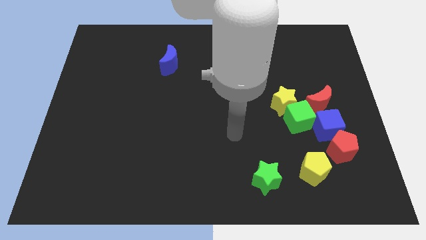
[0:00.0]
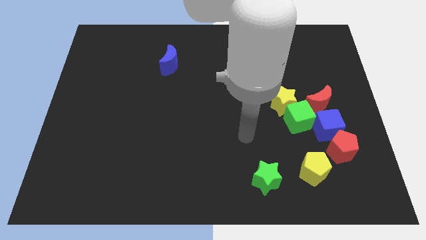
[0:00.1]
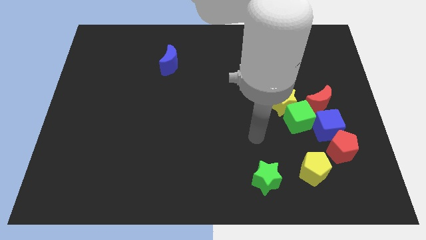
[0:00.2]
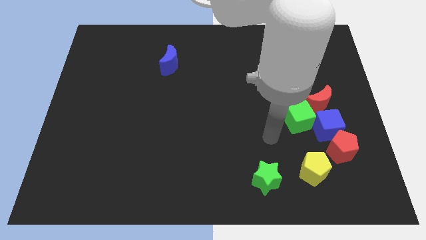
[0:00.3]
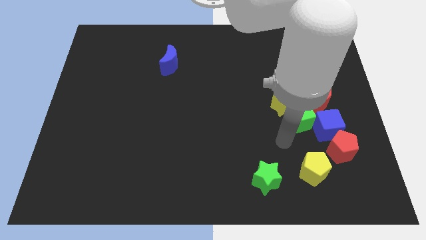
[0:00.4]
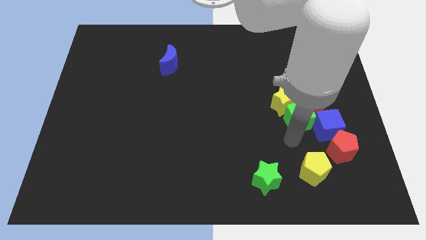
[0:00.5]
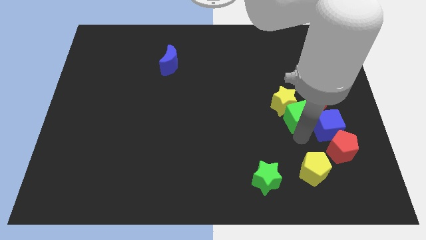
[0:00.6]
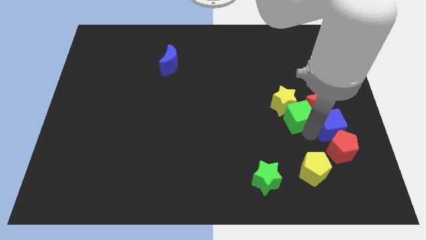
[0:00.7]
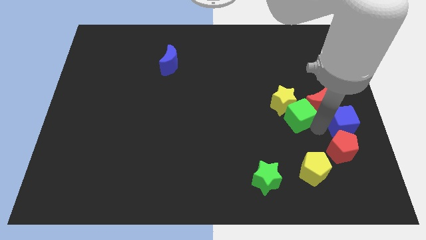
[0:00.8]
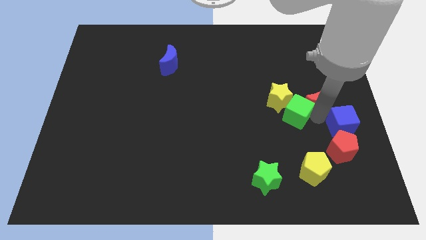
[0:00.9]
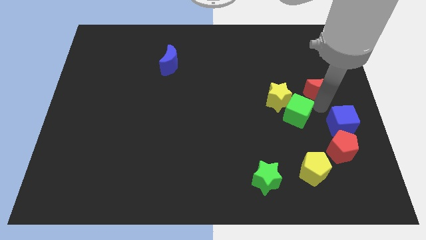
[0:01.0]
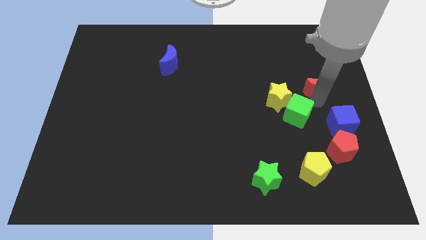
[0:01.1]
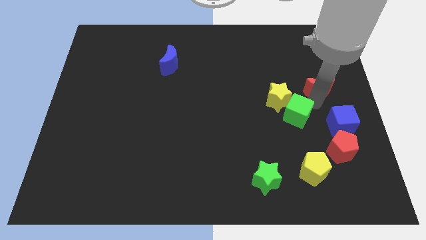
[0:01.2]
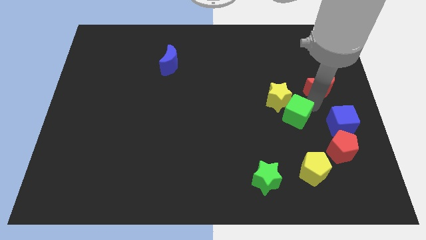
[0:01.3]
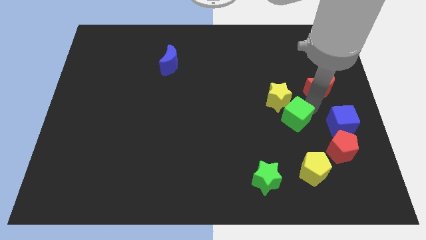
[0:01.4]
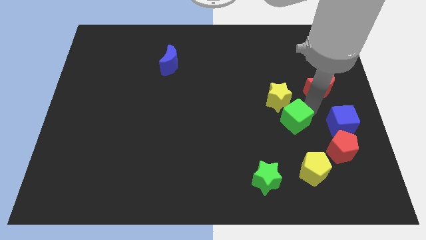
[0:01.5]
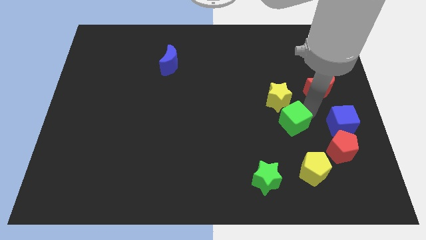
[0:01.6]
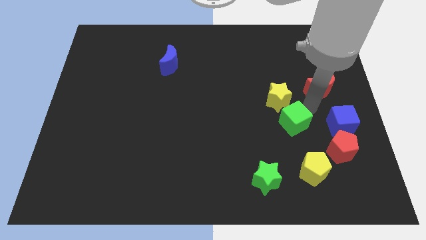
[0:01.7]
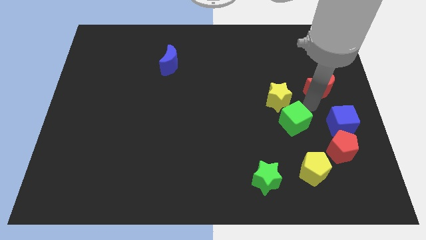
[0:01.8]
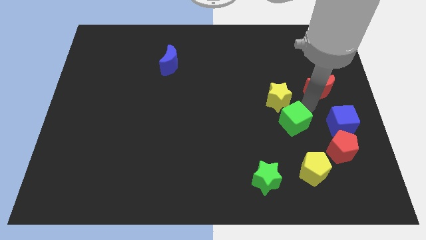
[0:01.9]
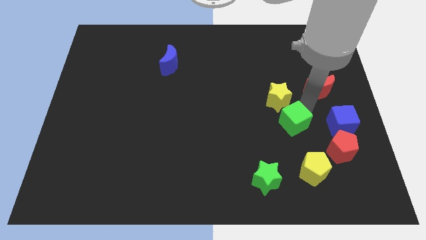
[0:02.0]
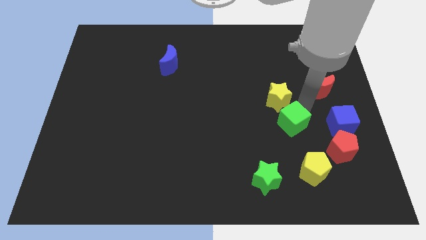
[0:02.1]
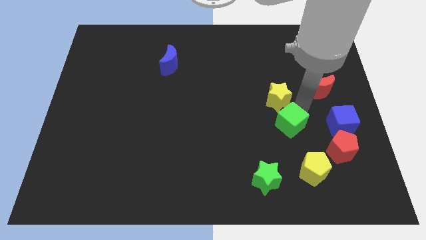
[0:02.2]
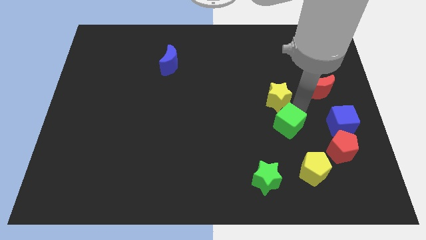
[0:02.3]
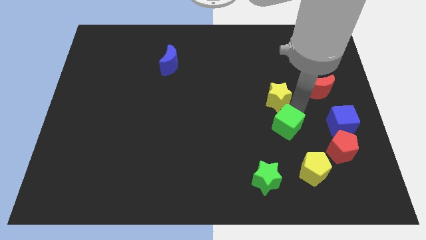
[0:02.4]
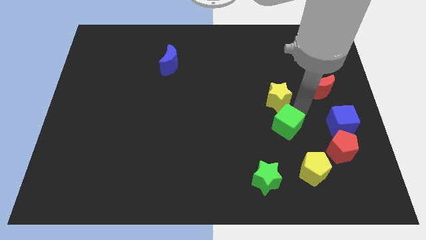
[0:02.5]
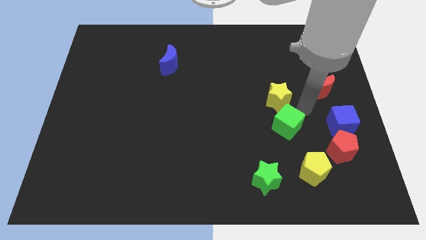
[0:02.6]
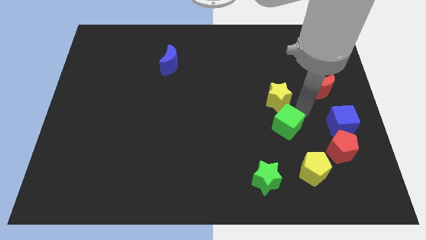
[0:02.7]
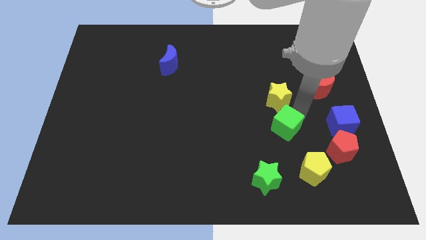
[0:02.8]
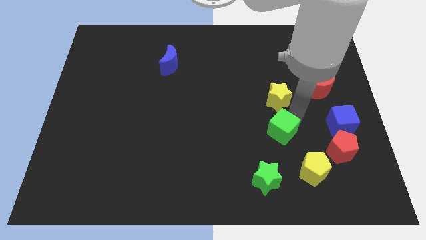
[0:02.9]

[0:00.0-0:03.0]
pull the green cube apart from the group

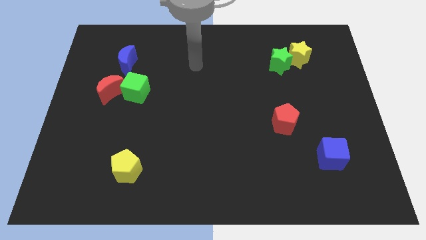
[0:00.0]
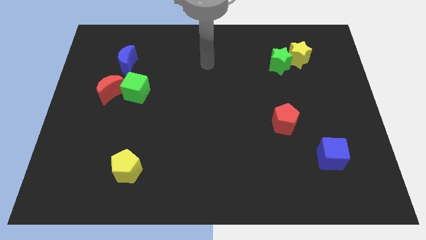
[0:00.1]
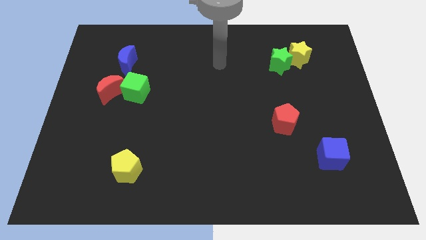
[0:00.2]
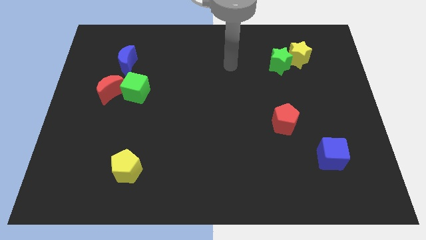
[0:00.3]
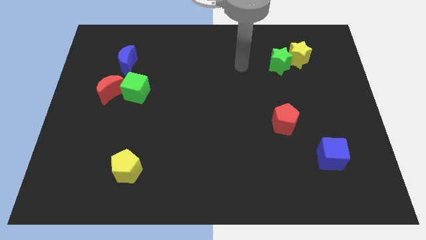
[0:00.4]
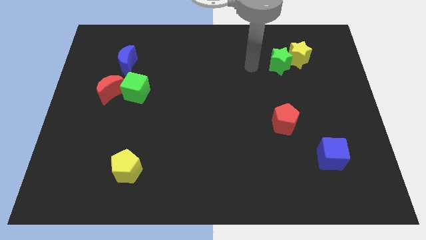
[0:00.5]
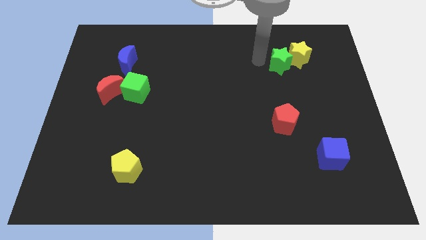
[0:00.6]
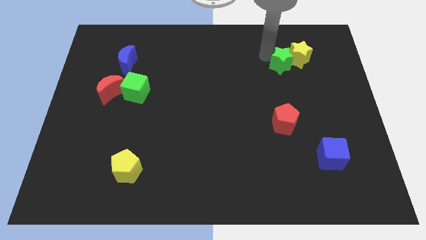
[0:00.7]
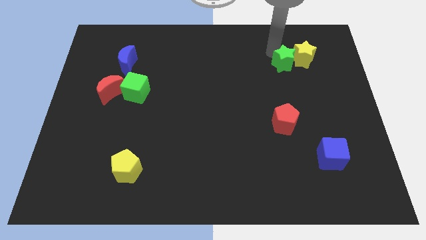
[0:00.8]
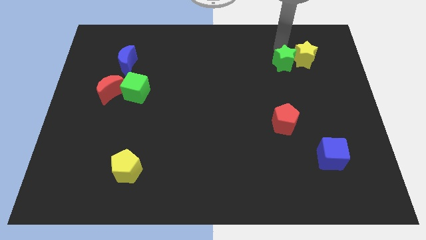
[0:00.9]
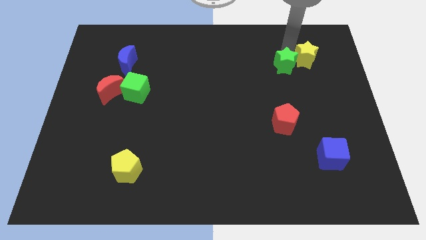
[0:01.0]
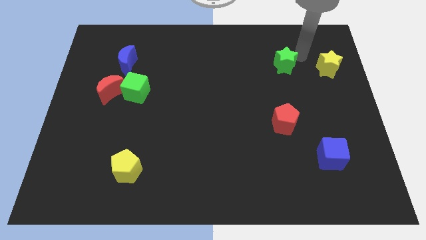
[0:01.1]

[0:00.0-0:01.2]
pull the green star apart from the yellow star

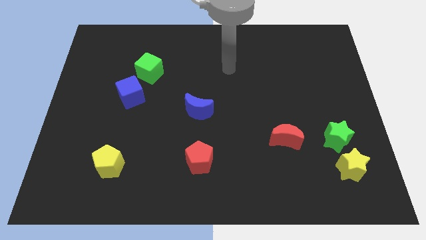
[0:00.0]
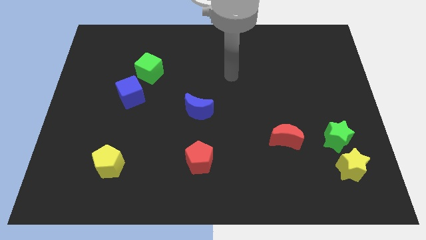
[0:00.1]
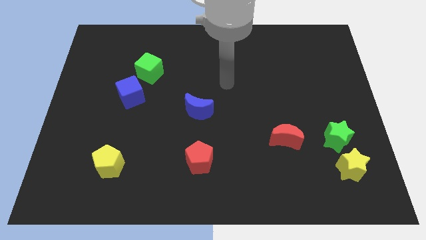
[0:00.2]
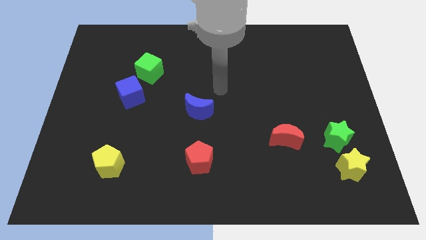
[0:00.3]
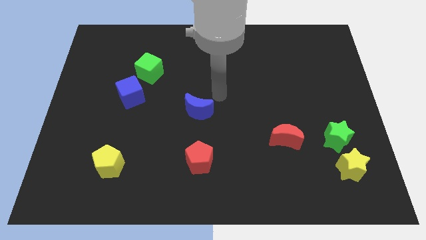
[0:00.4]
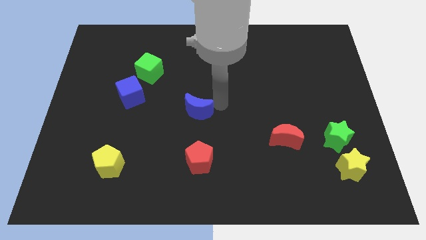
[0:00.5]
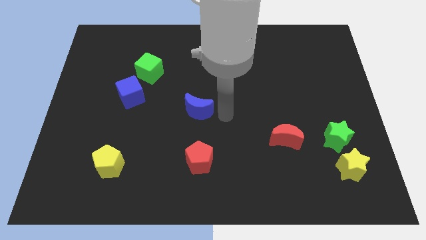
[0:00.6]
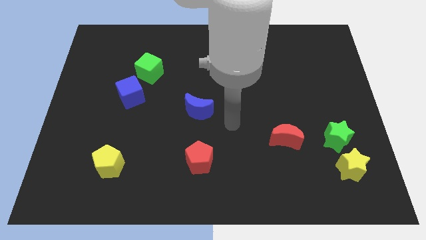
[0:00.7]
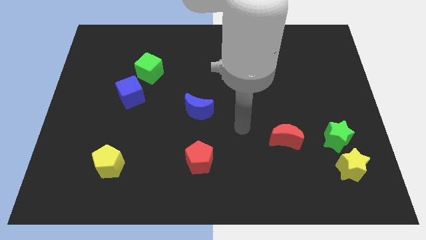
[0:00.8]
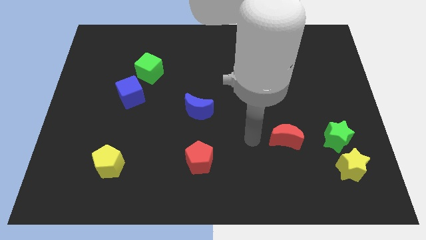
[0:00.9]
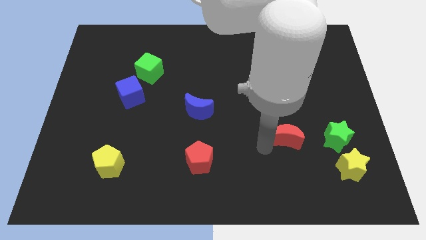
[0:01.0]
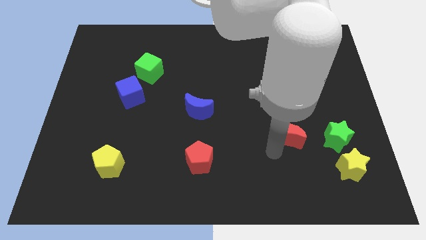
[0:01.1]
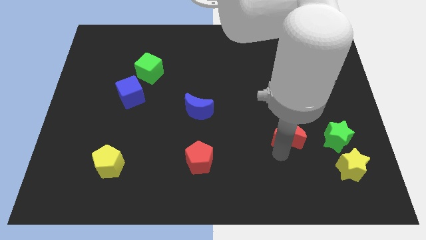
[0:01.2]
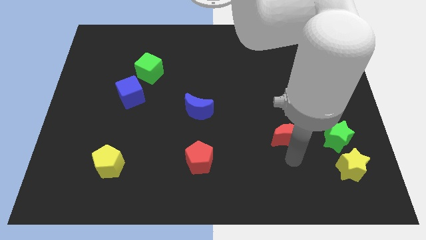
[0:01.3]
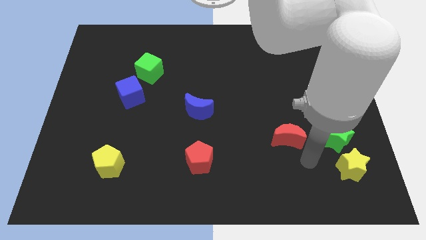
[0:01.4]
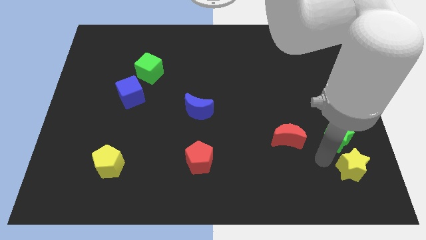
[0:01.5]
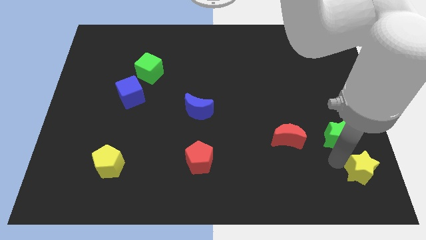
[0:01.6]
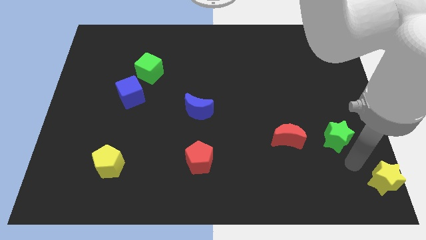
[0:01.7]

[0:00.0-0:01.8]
separate the green star from the yellow star

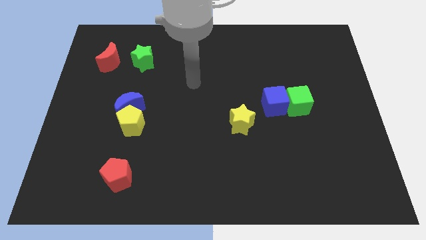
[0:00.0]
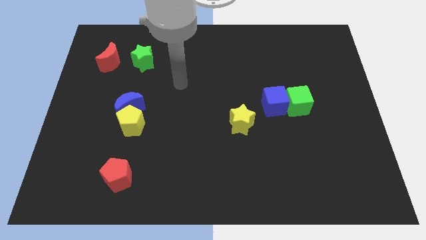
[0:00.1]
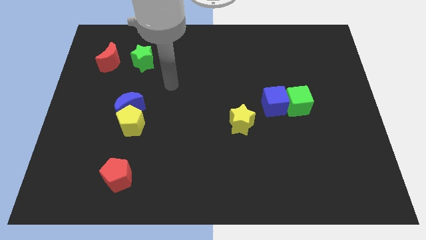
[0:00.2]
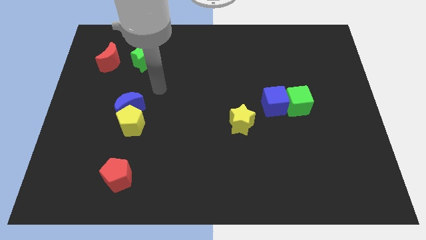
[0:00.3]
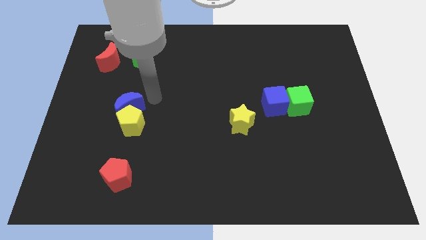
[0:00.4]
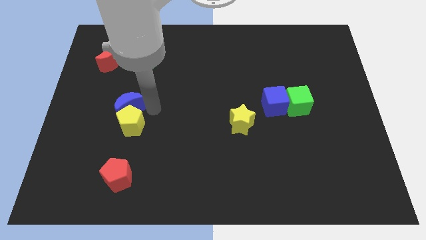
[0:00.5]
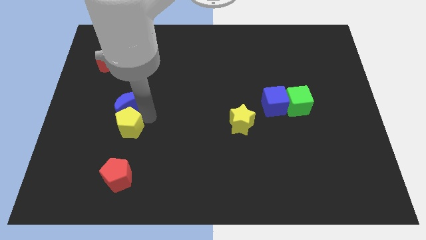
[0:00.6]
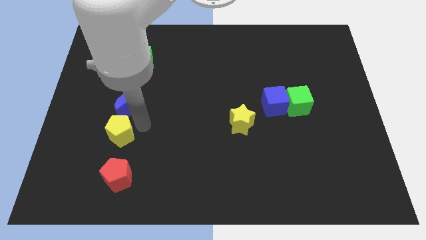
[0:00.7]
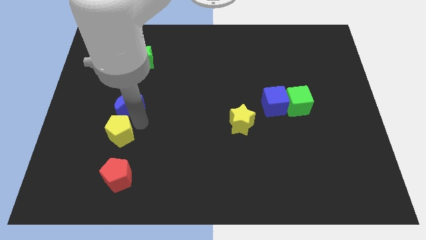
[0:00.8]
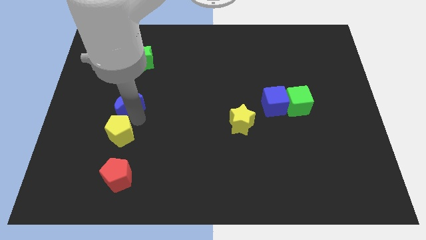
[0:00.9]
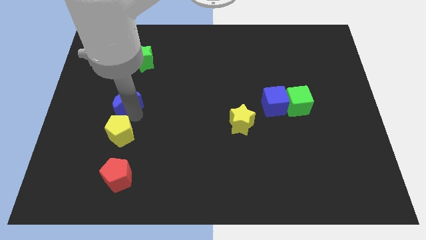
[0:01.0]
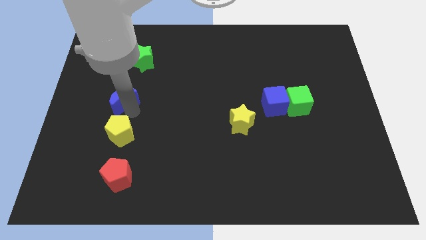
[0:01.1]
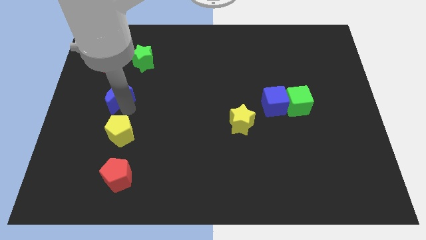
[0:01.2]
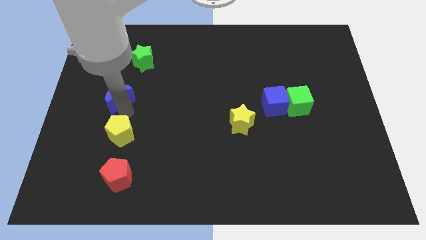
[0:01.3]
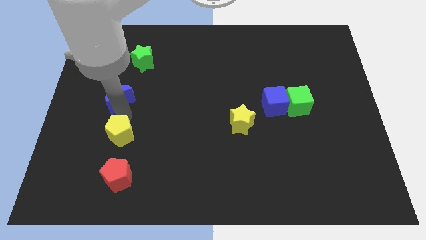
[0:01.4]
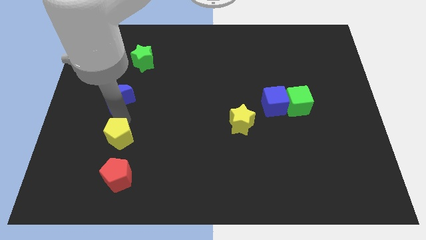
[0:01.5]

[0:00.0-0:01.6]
separate the blue moon from the yellow pentagon

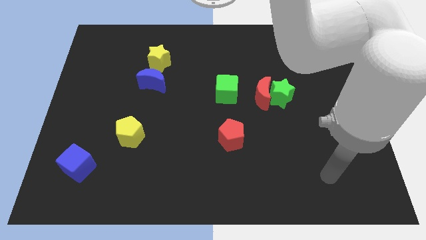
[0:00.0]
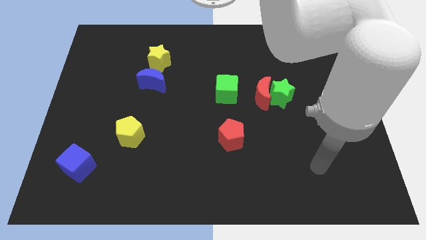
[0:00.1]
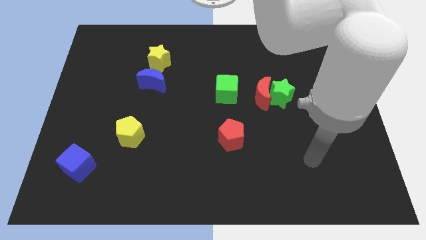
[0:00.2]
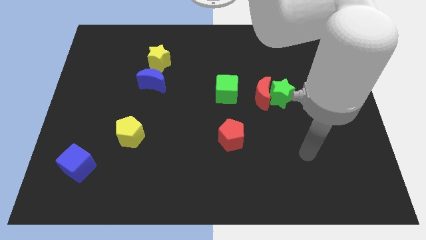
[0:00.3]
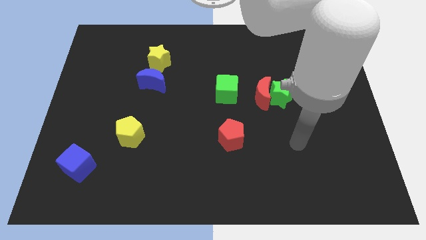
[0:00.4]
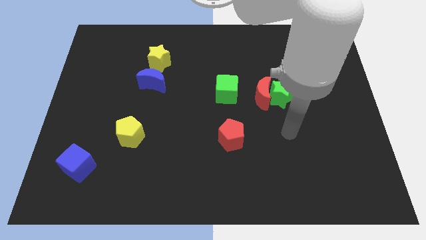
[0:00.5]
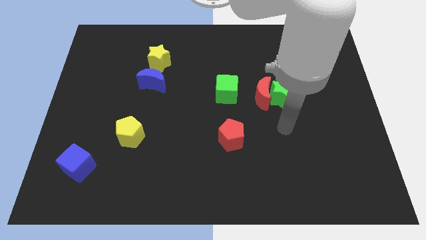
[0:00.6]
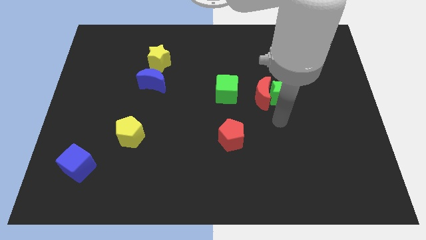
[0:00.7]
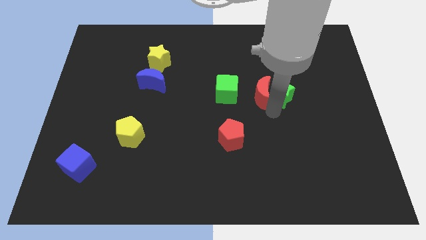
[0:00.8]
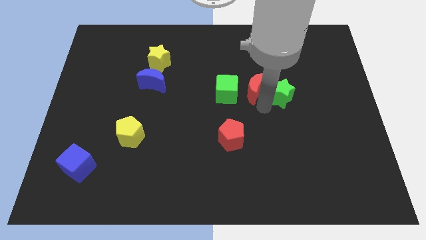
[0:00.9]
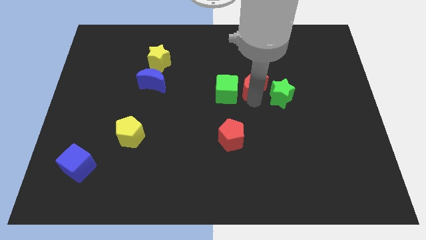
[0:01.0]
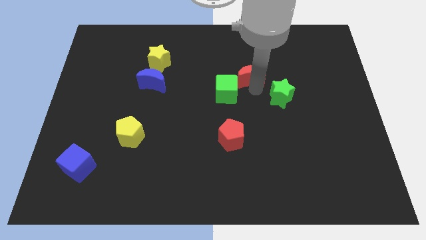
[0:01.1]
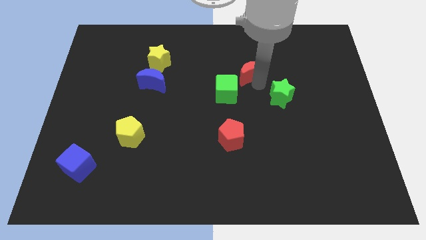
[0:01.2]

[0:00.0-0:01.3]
move the green star away from the red moon

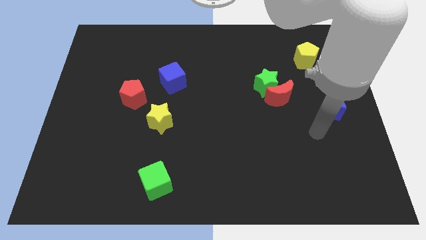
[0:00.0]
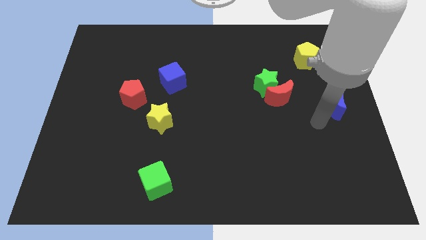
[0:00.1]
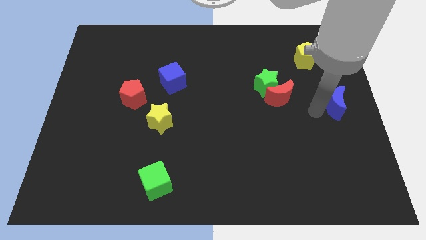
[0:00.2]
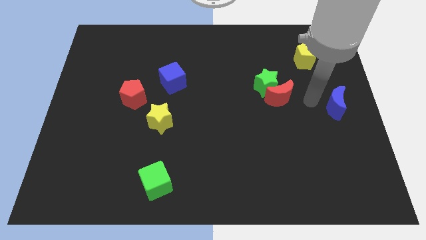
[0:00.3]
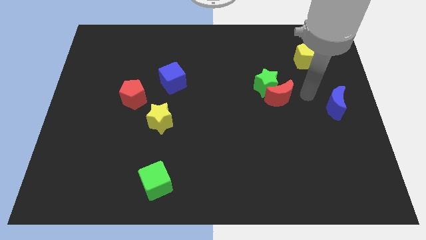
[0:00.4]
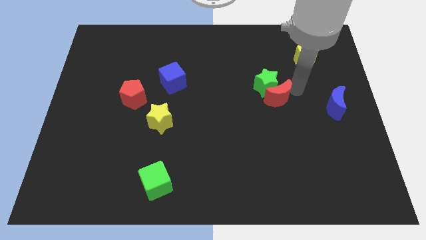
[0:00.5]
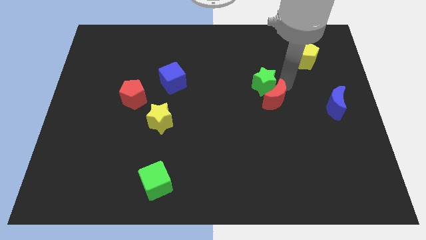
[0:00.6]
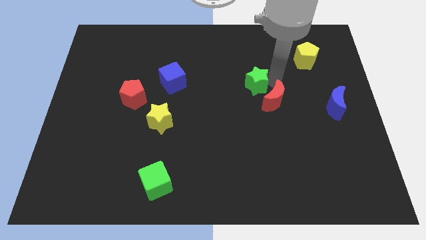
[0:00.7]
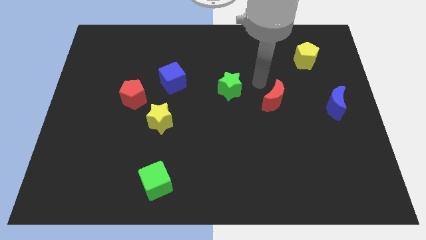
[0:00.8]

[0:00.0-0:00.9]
pull the red moon apart from the green star
